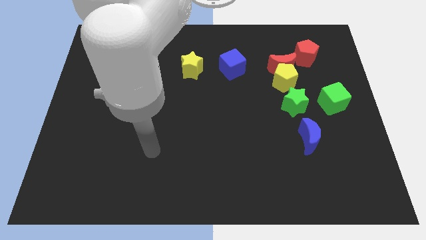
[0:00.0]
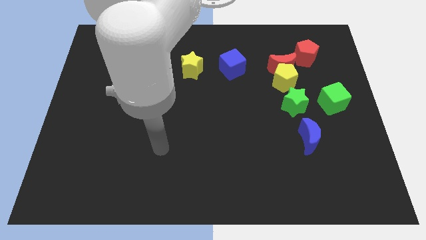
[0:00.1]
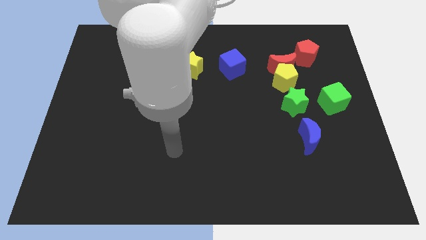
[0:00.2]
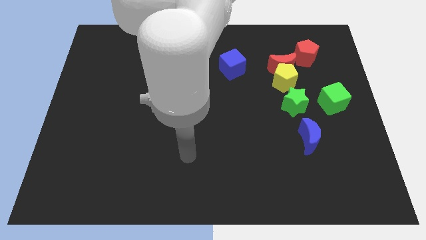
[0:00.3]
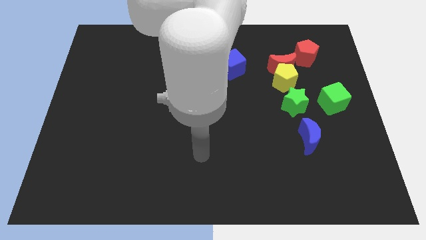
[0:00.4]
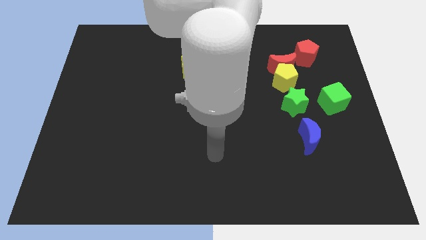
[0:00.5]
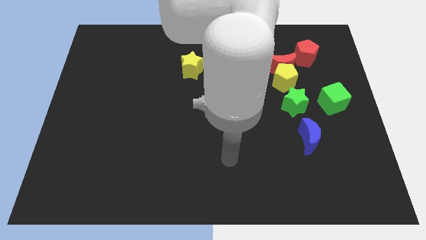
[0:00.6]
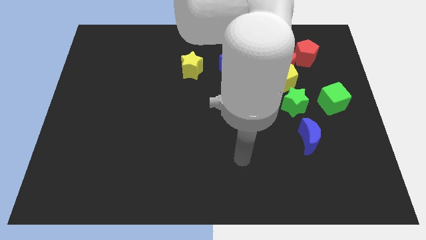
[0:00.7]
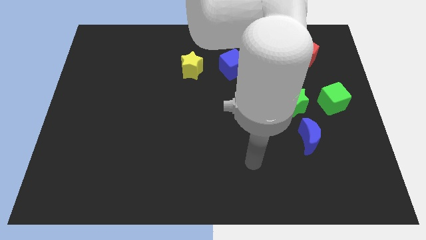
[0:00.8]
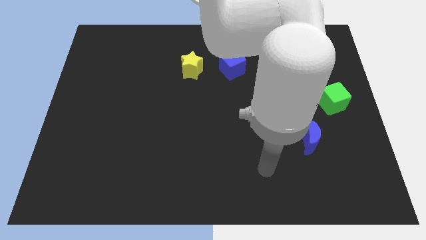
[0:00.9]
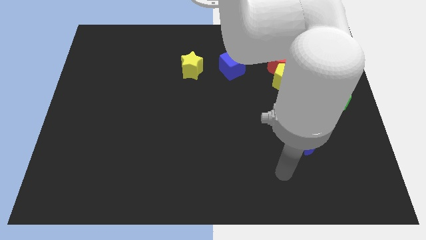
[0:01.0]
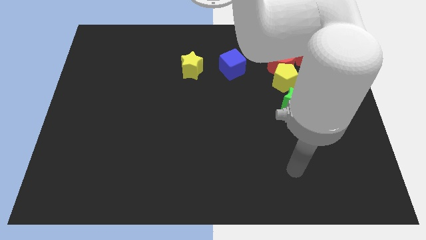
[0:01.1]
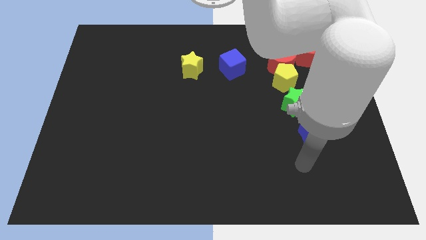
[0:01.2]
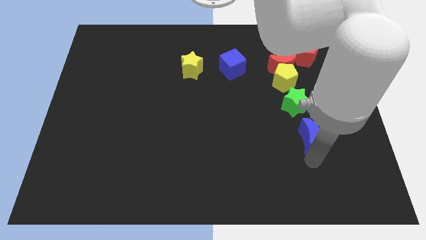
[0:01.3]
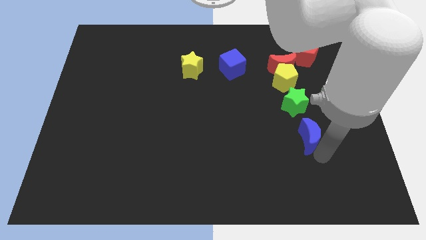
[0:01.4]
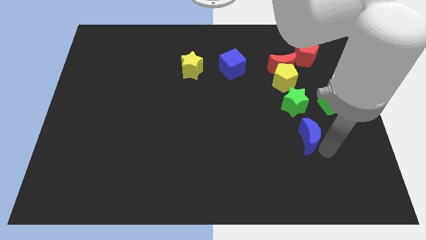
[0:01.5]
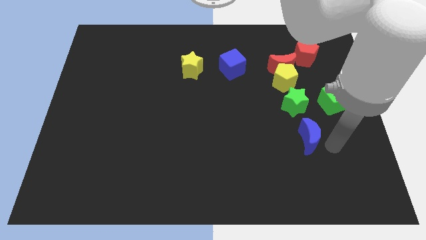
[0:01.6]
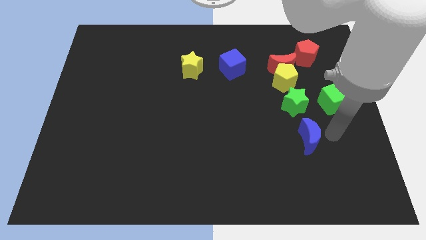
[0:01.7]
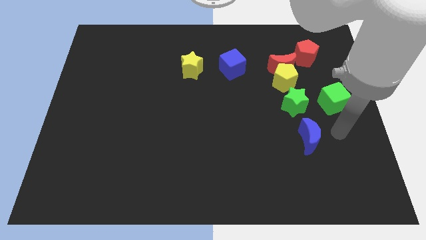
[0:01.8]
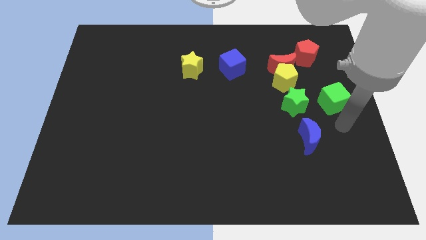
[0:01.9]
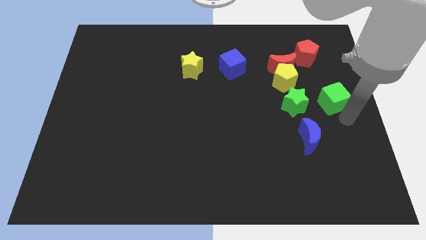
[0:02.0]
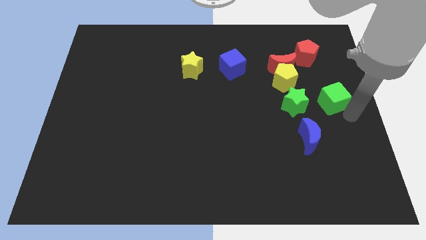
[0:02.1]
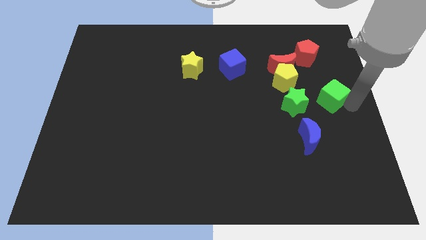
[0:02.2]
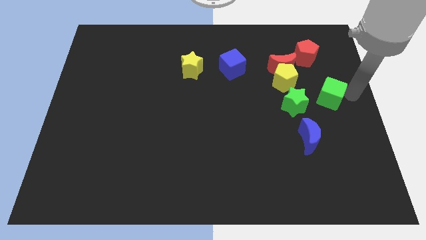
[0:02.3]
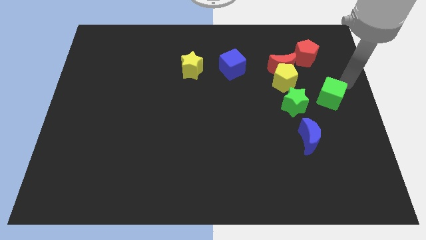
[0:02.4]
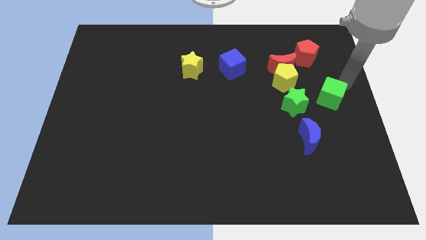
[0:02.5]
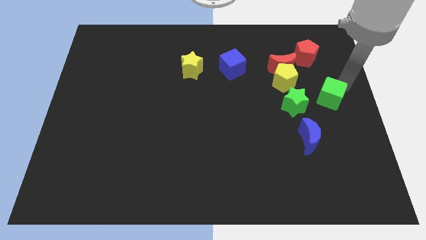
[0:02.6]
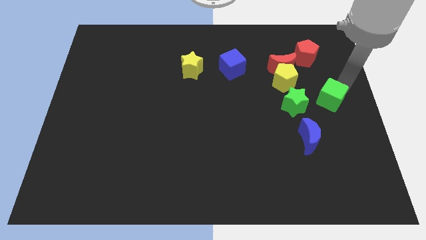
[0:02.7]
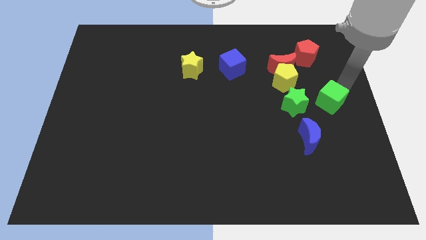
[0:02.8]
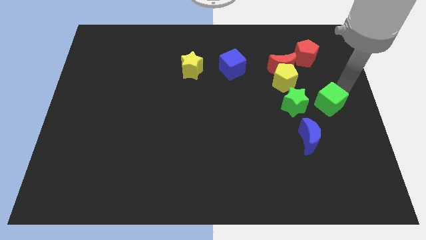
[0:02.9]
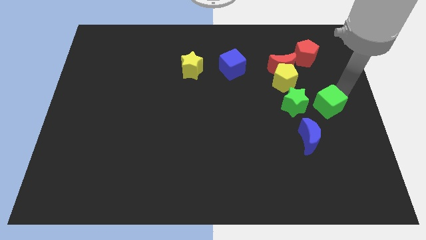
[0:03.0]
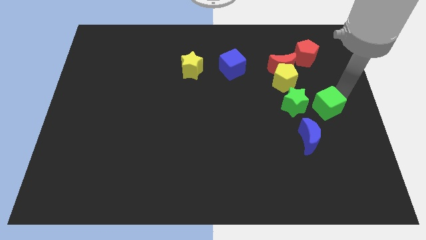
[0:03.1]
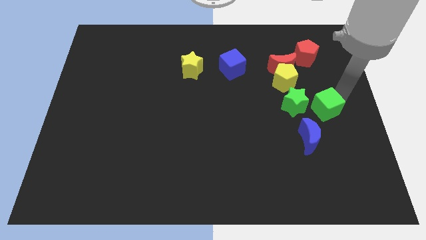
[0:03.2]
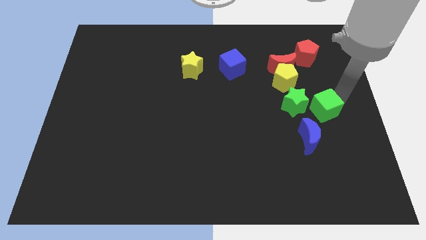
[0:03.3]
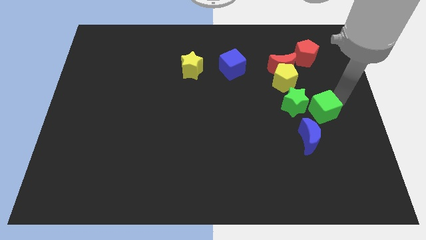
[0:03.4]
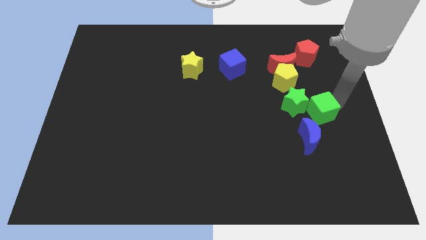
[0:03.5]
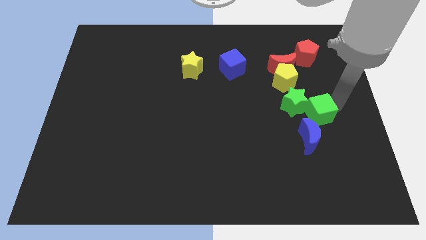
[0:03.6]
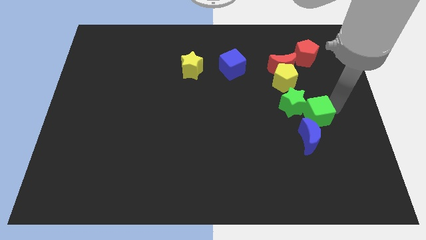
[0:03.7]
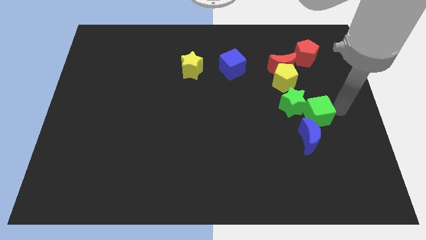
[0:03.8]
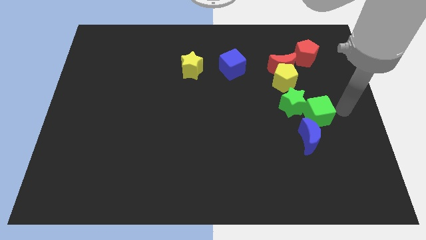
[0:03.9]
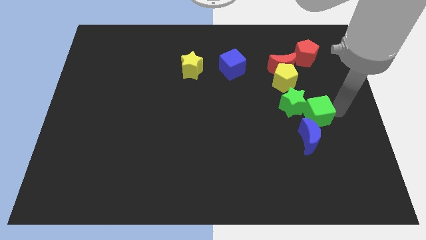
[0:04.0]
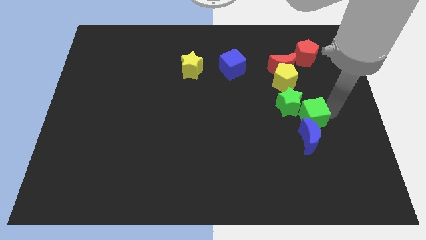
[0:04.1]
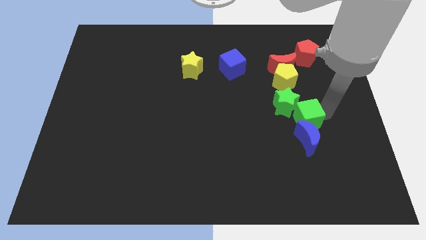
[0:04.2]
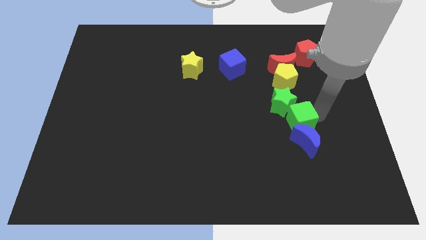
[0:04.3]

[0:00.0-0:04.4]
move the green cube a little bit left

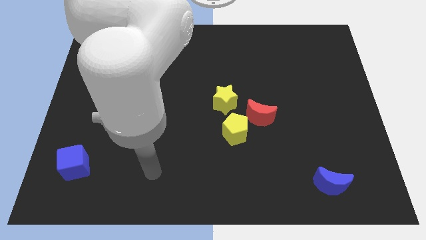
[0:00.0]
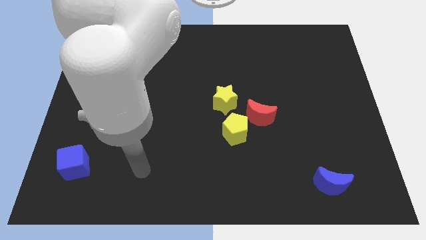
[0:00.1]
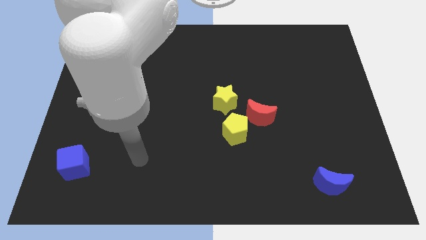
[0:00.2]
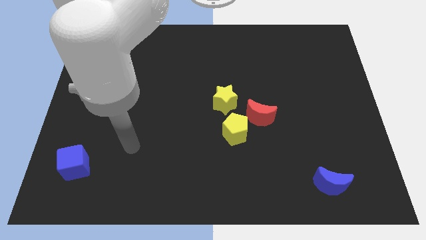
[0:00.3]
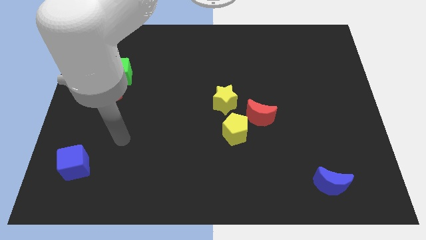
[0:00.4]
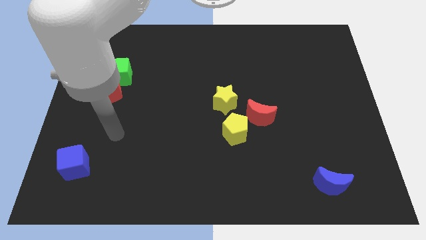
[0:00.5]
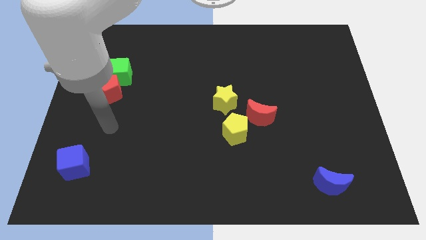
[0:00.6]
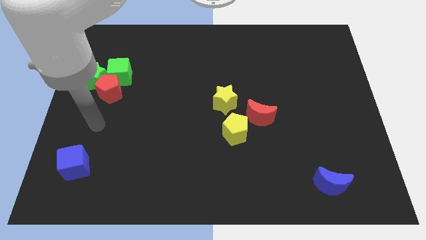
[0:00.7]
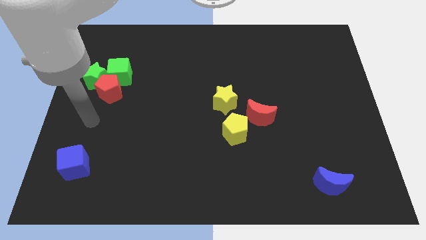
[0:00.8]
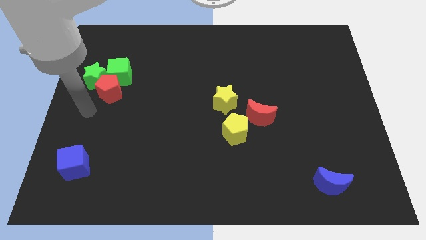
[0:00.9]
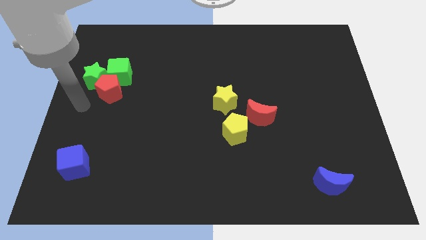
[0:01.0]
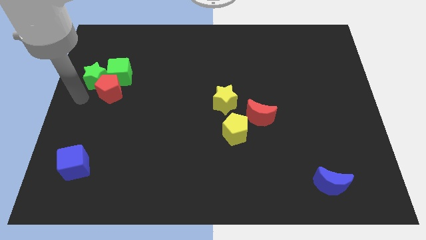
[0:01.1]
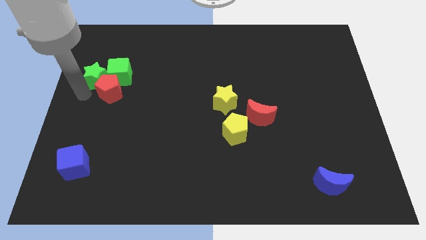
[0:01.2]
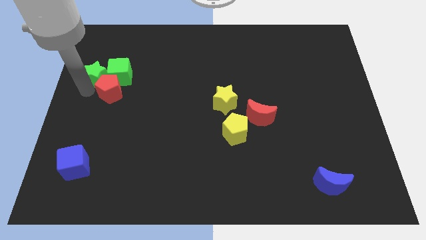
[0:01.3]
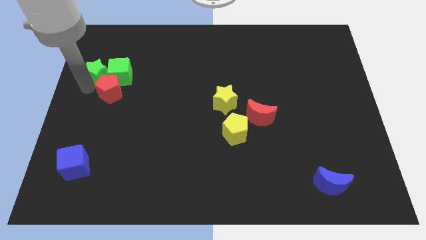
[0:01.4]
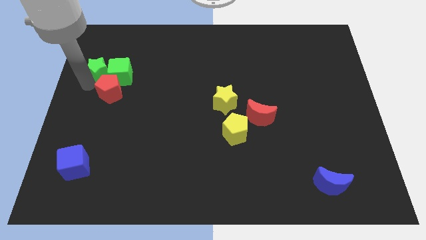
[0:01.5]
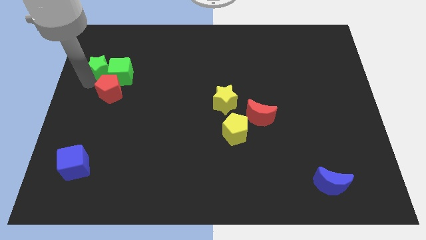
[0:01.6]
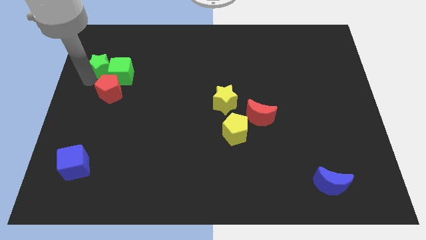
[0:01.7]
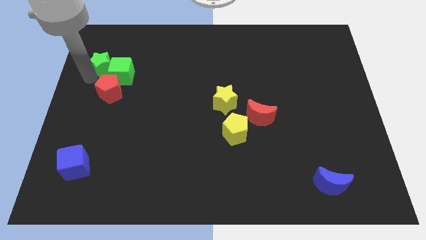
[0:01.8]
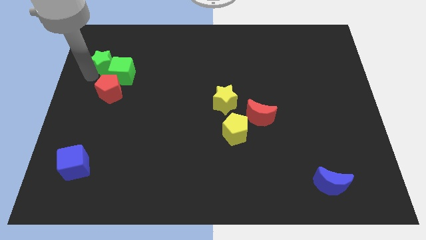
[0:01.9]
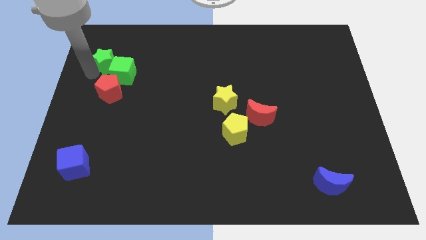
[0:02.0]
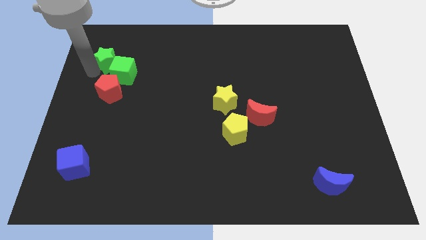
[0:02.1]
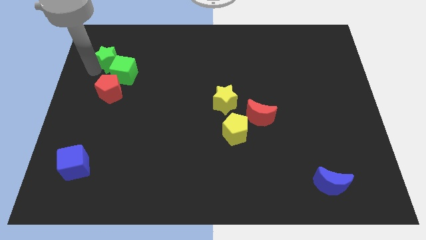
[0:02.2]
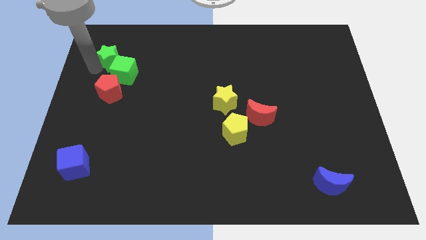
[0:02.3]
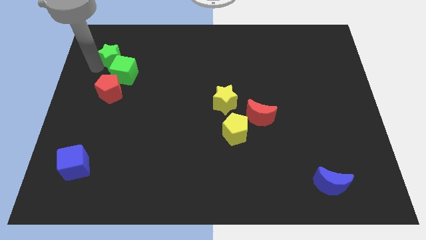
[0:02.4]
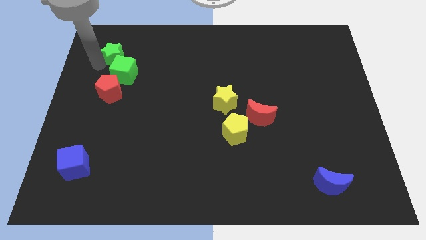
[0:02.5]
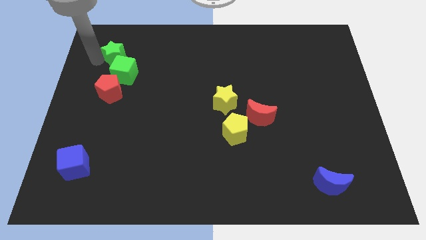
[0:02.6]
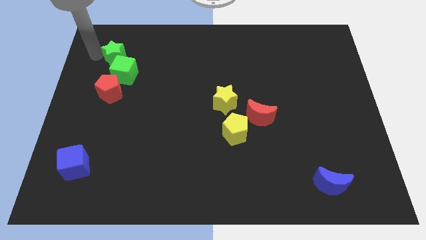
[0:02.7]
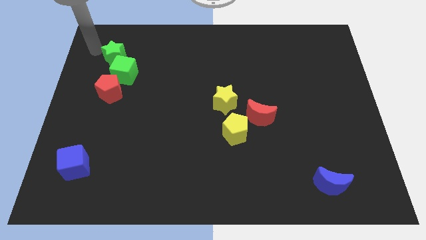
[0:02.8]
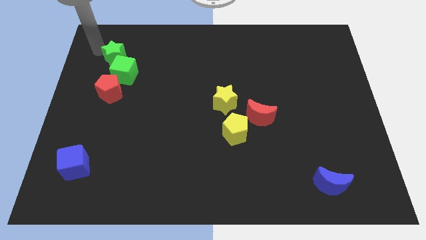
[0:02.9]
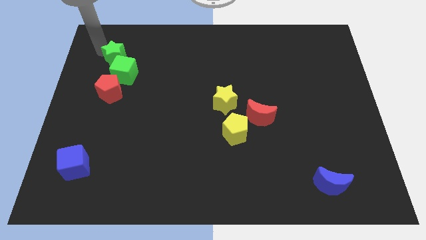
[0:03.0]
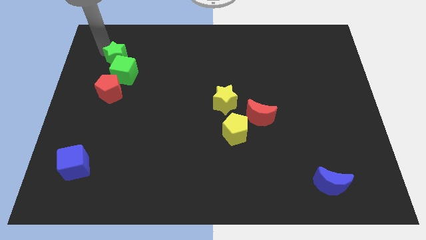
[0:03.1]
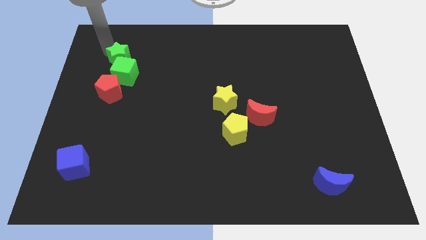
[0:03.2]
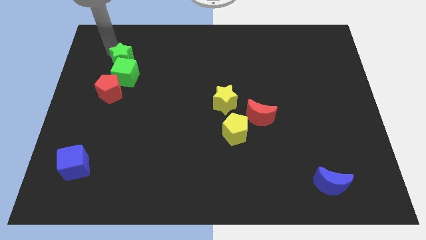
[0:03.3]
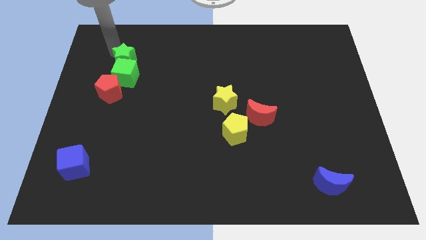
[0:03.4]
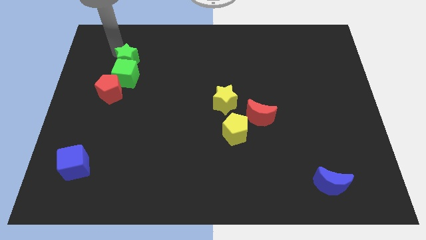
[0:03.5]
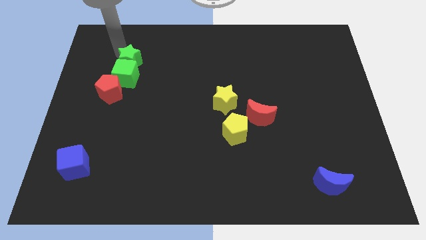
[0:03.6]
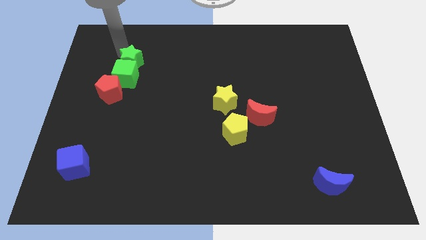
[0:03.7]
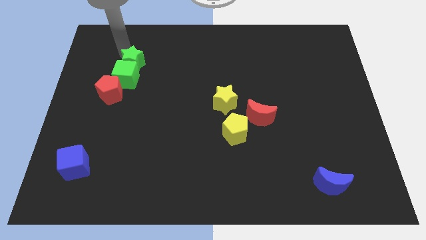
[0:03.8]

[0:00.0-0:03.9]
move the green star to the right a bit

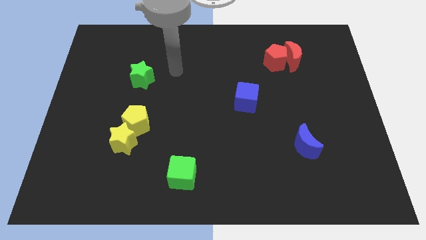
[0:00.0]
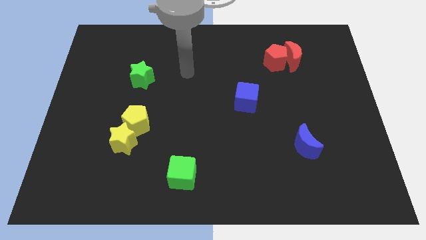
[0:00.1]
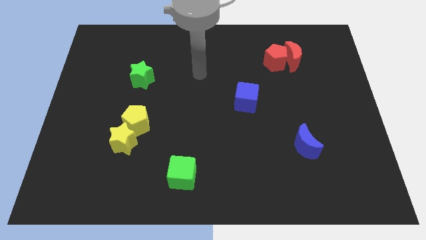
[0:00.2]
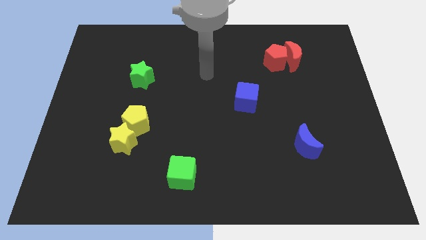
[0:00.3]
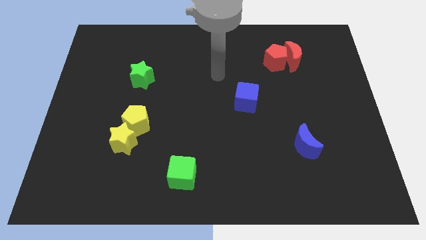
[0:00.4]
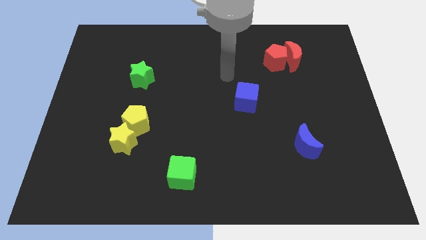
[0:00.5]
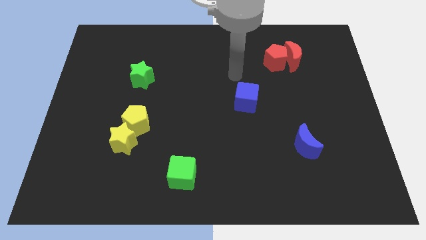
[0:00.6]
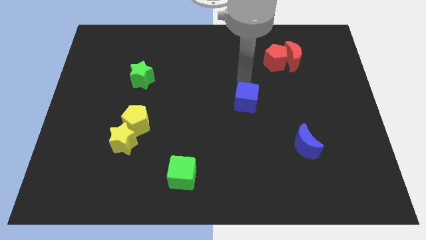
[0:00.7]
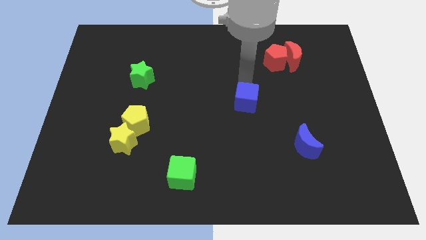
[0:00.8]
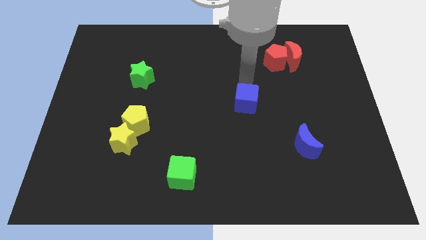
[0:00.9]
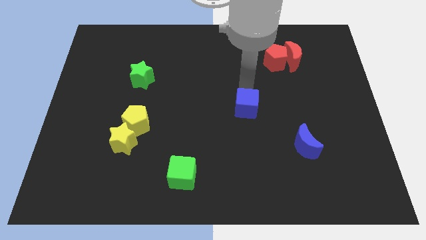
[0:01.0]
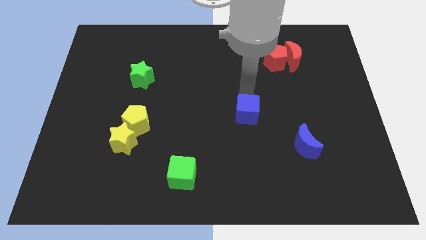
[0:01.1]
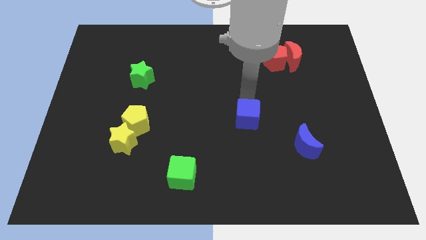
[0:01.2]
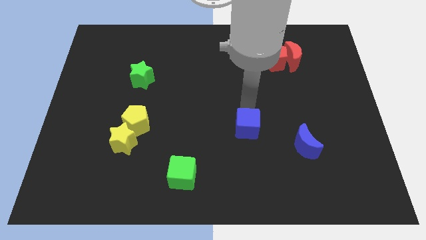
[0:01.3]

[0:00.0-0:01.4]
slide the blue cube a little down
